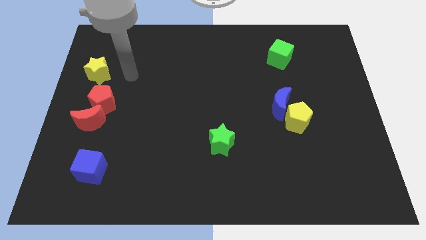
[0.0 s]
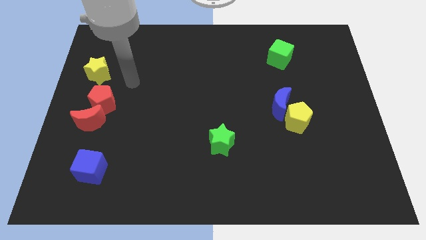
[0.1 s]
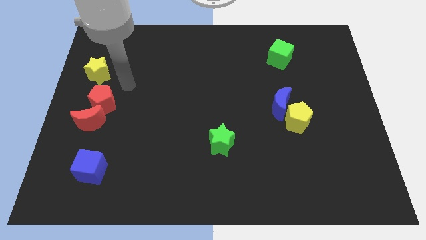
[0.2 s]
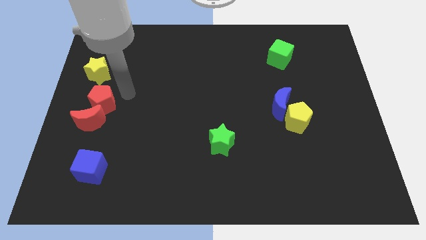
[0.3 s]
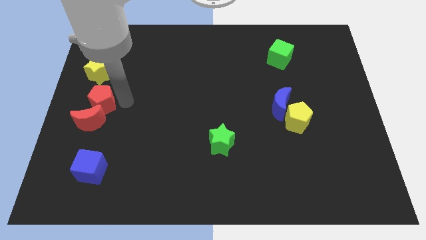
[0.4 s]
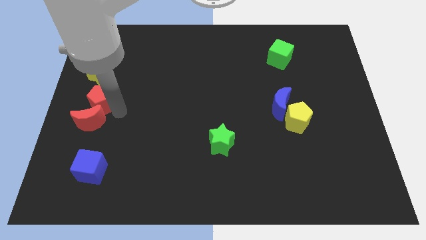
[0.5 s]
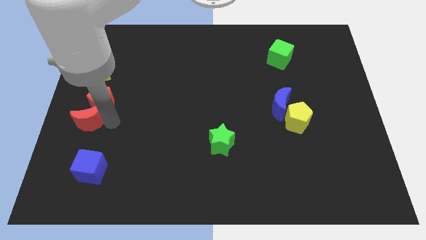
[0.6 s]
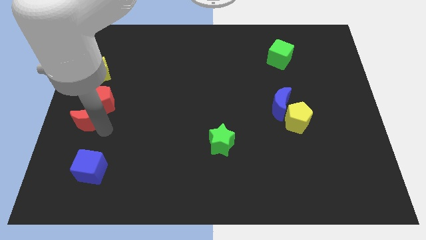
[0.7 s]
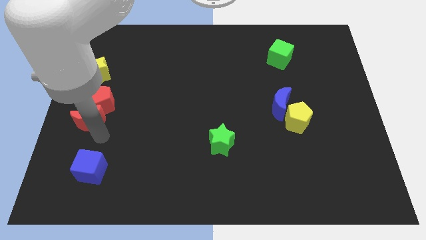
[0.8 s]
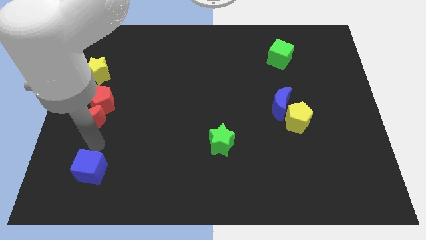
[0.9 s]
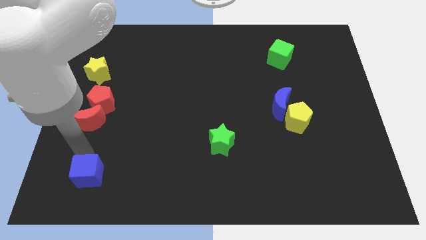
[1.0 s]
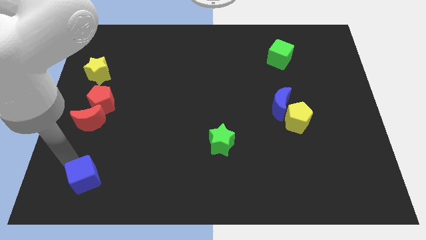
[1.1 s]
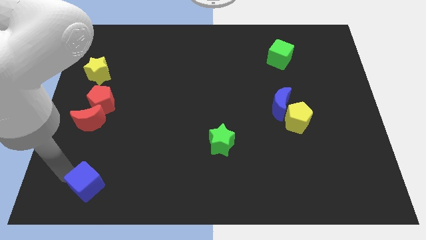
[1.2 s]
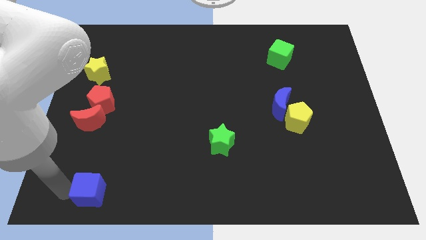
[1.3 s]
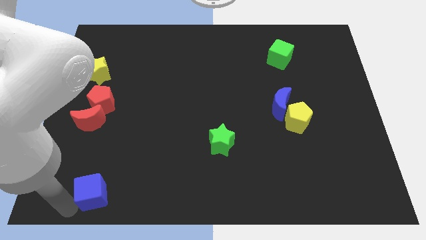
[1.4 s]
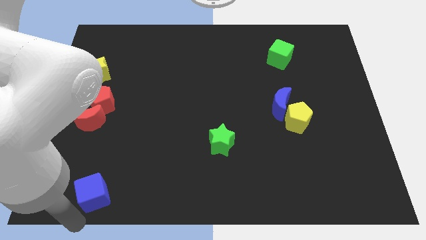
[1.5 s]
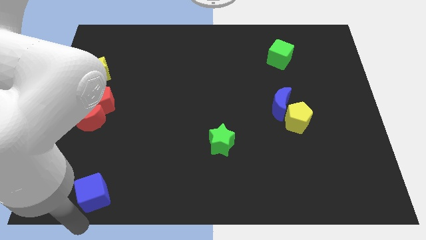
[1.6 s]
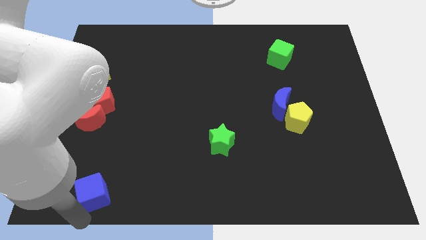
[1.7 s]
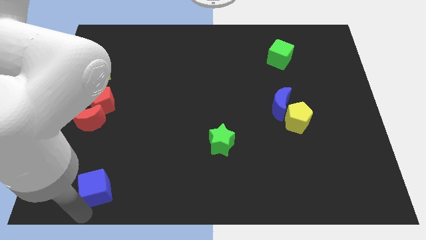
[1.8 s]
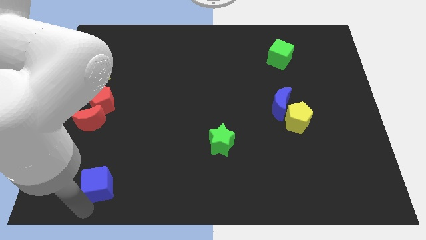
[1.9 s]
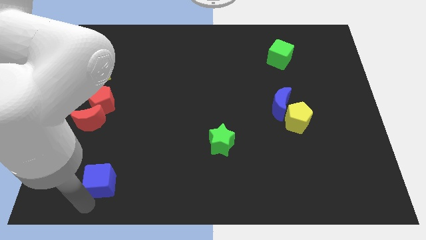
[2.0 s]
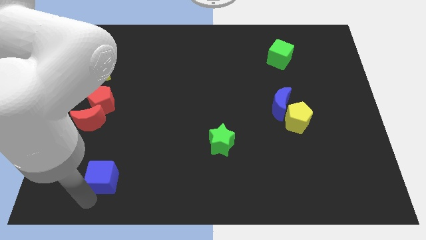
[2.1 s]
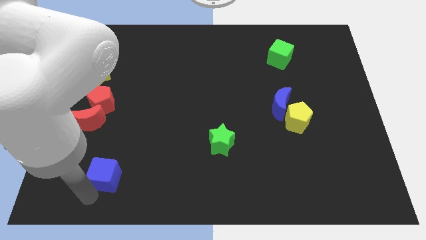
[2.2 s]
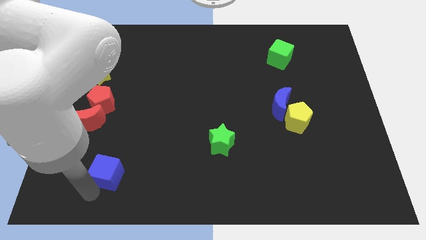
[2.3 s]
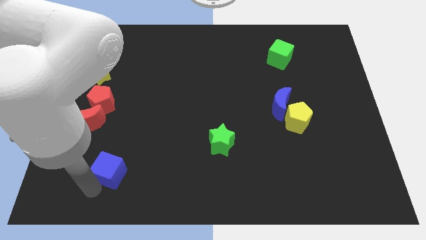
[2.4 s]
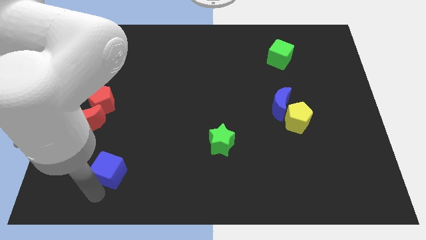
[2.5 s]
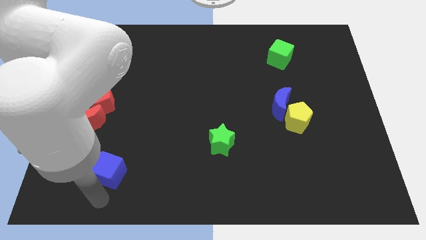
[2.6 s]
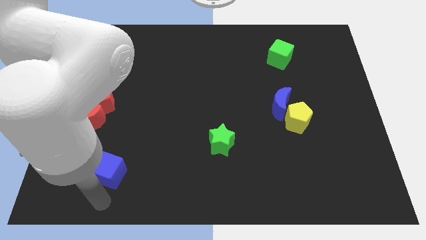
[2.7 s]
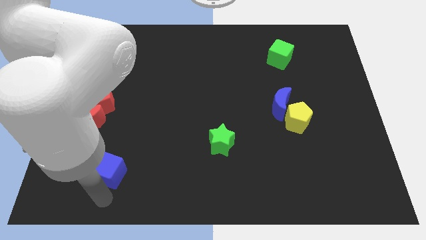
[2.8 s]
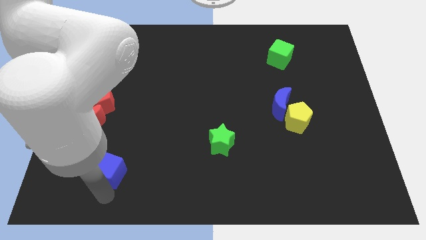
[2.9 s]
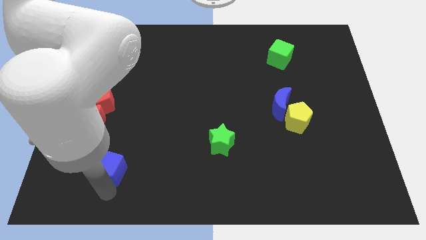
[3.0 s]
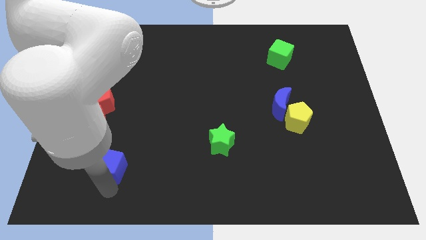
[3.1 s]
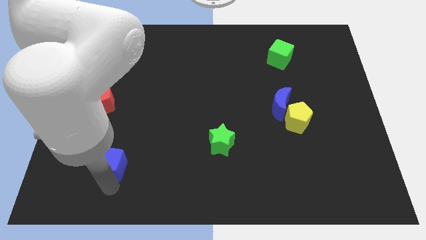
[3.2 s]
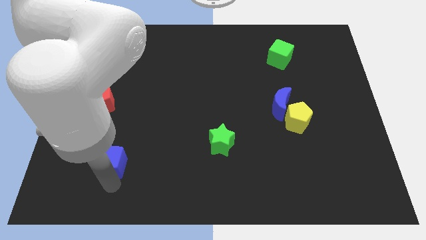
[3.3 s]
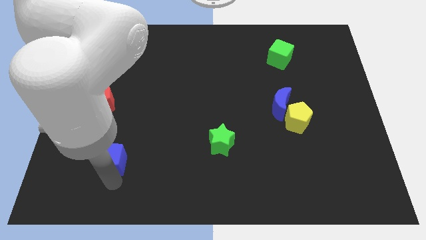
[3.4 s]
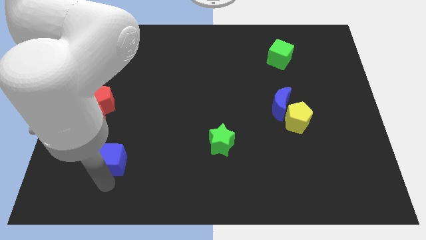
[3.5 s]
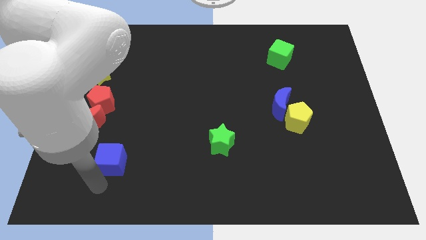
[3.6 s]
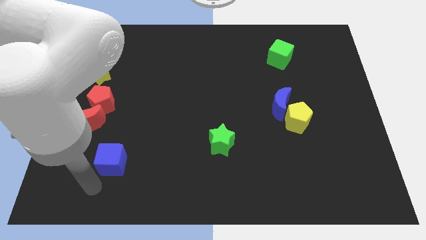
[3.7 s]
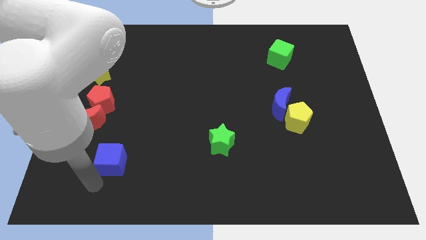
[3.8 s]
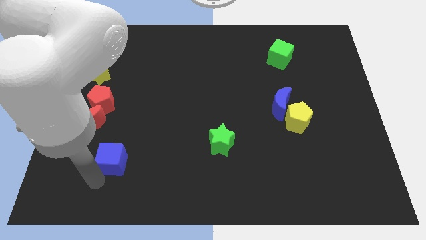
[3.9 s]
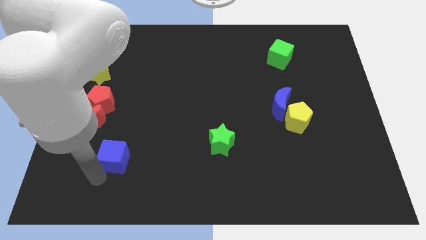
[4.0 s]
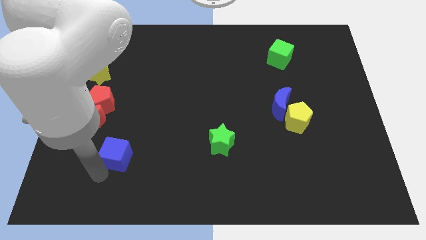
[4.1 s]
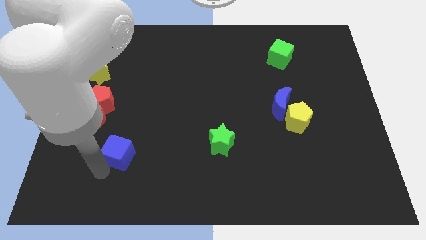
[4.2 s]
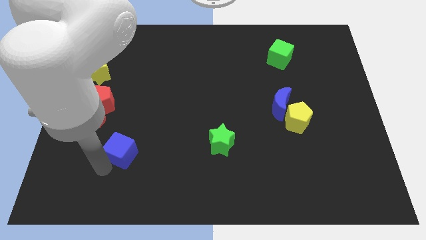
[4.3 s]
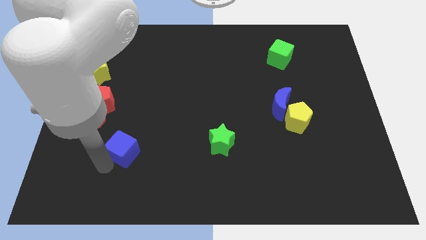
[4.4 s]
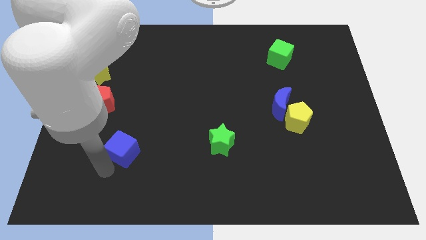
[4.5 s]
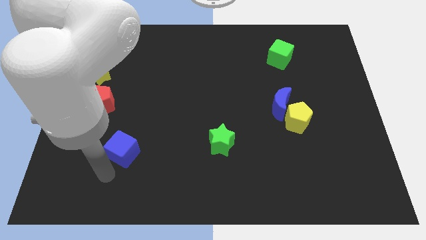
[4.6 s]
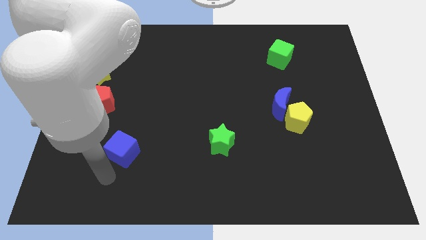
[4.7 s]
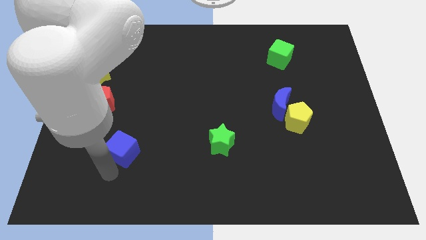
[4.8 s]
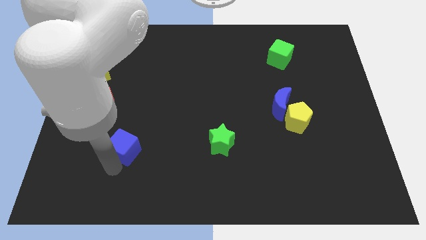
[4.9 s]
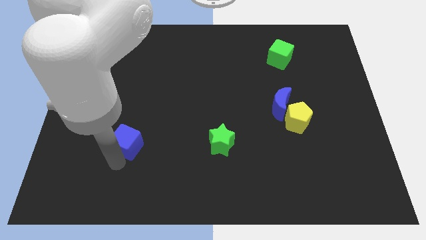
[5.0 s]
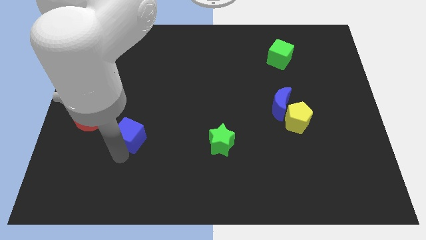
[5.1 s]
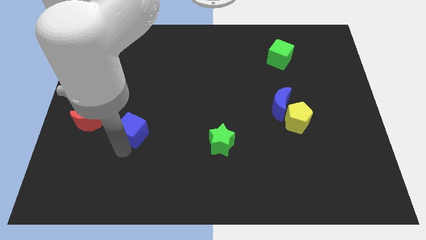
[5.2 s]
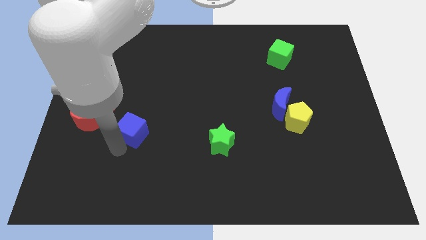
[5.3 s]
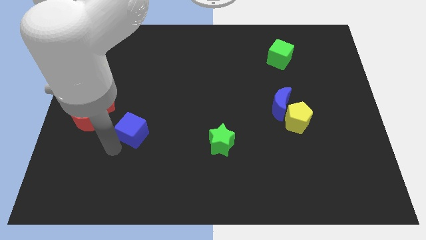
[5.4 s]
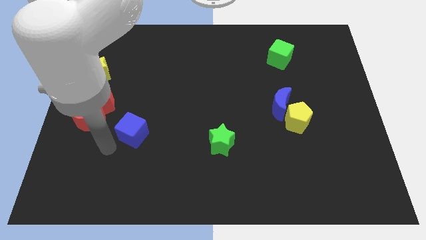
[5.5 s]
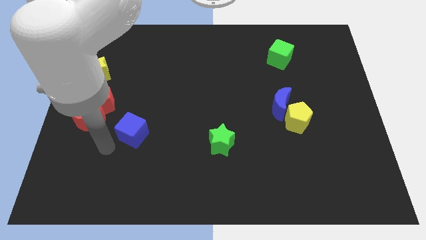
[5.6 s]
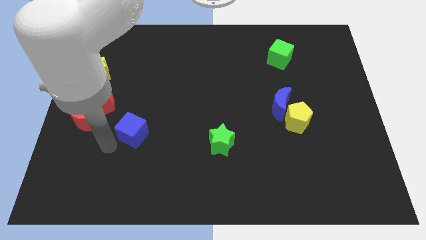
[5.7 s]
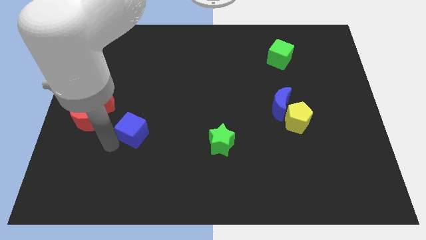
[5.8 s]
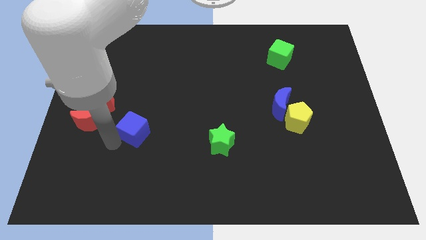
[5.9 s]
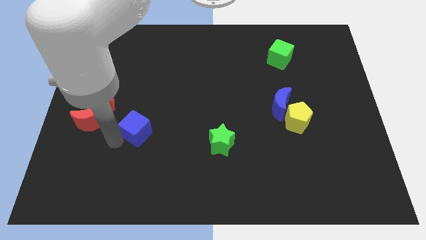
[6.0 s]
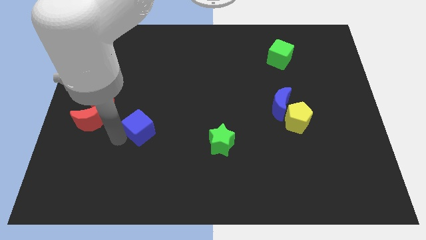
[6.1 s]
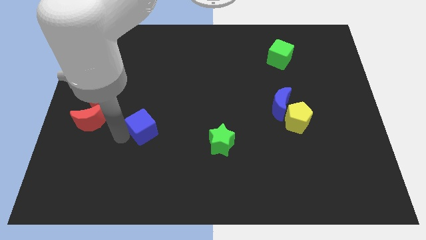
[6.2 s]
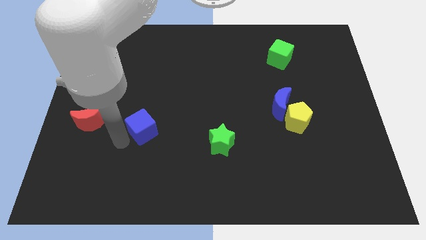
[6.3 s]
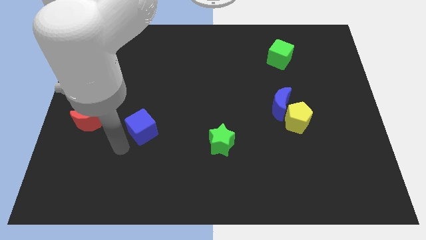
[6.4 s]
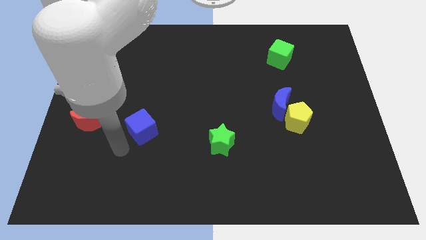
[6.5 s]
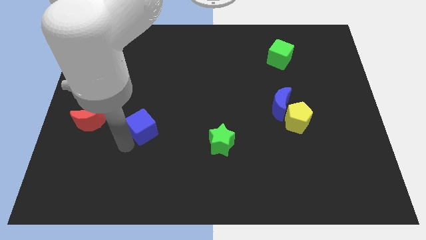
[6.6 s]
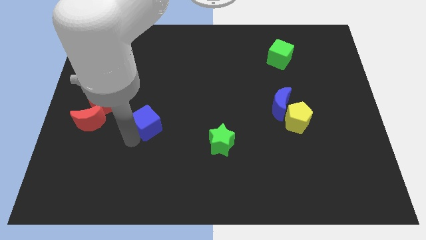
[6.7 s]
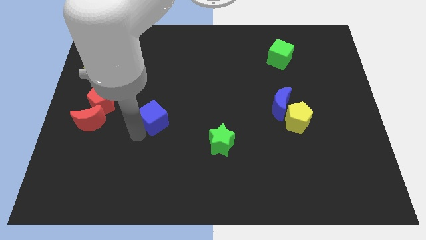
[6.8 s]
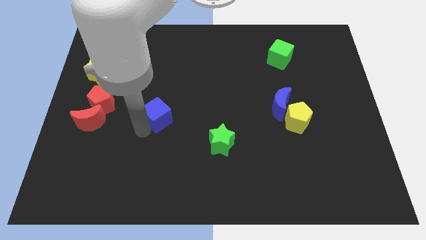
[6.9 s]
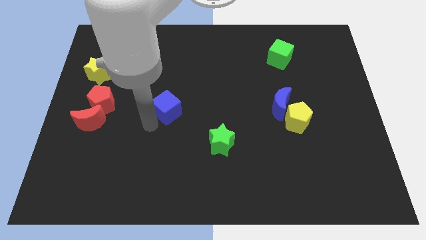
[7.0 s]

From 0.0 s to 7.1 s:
move the blue cube up and then to the right

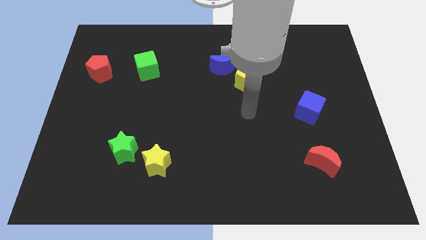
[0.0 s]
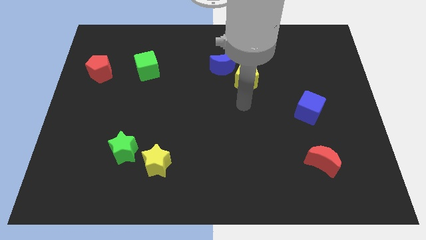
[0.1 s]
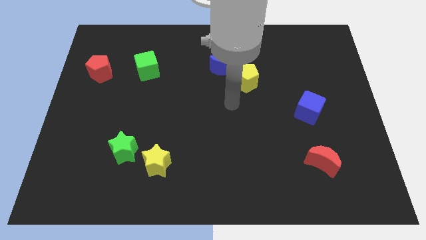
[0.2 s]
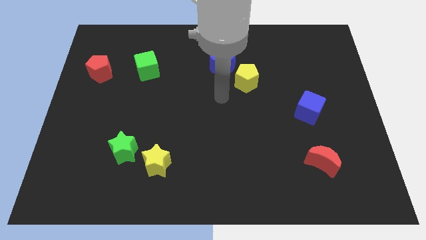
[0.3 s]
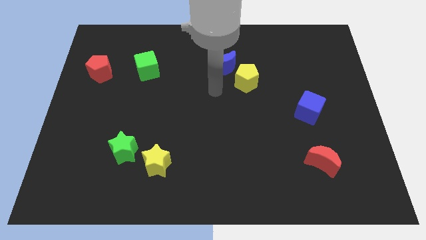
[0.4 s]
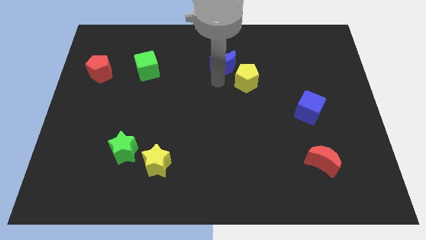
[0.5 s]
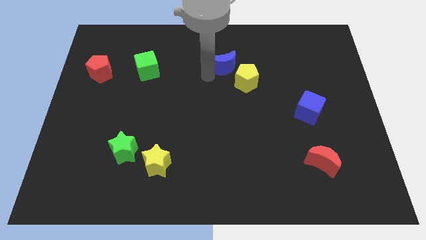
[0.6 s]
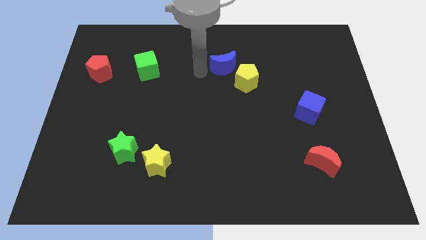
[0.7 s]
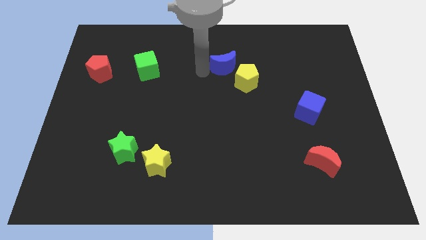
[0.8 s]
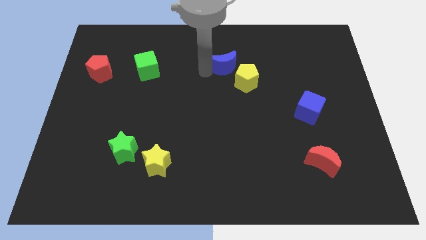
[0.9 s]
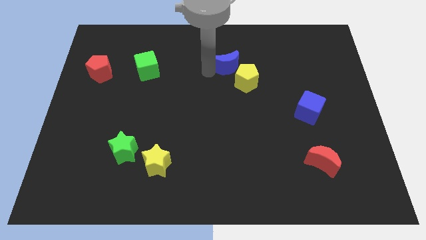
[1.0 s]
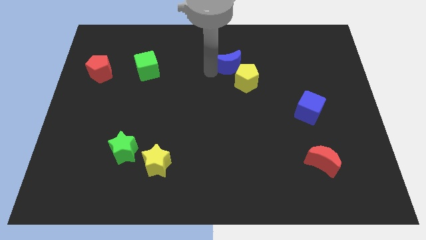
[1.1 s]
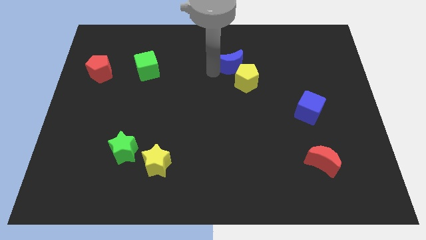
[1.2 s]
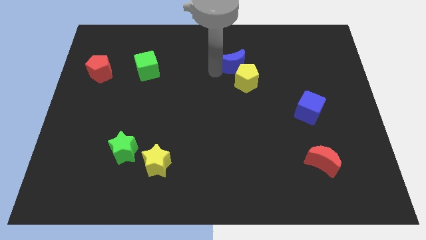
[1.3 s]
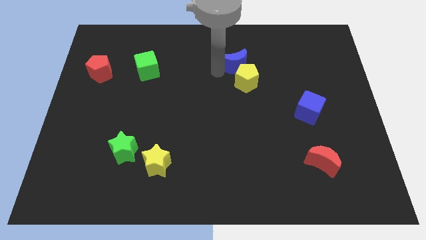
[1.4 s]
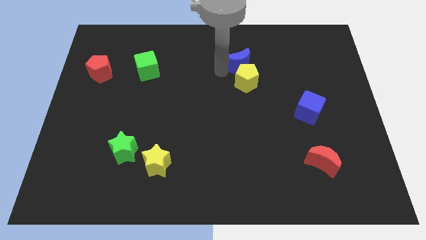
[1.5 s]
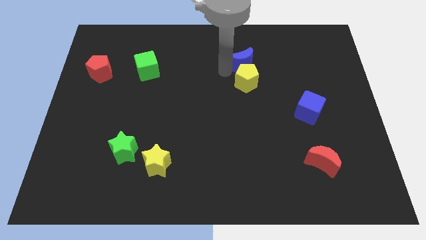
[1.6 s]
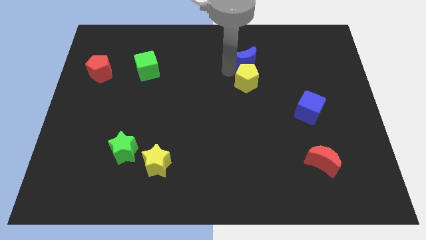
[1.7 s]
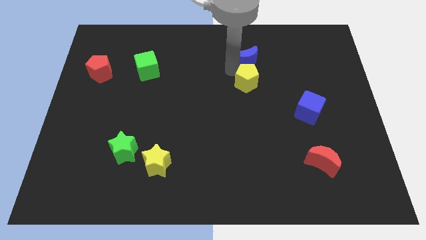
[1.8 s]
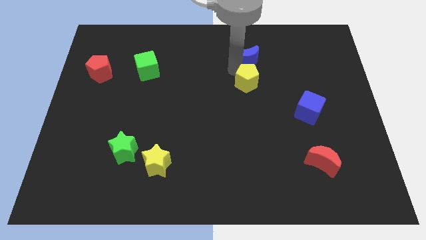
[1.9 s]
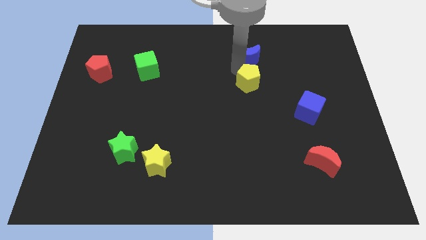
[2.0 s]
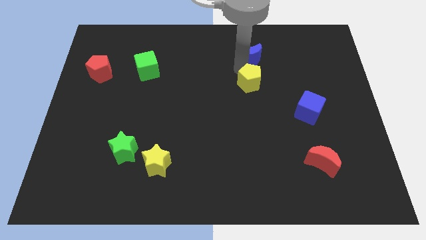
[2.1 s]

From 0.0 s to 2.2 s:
slightly move the blue moon right
